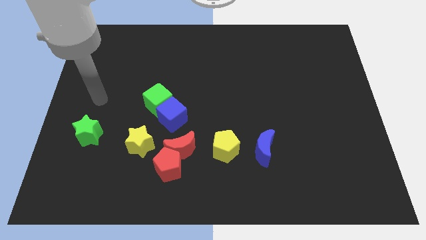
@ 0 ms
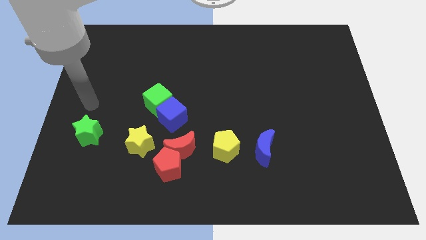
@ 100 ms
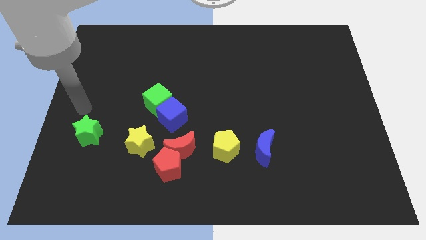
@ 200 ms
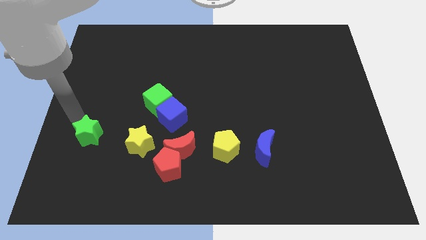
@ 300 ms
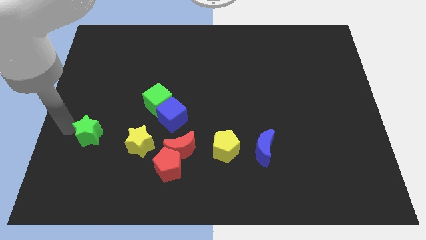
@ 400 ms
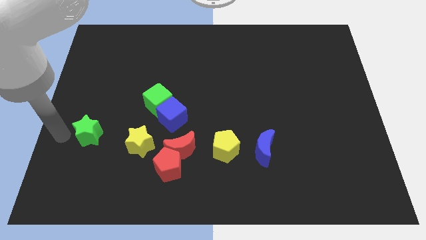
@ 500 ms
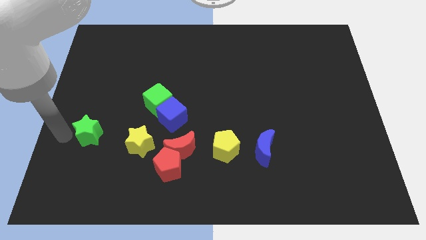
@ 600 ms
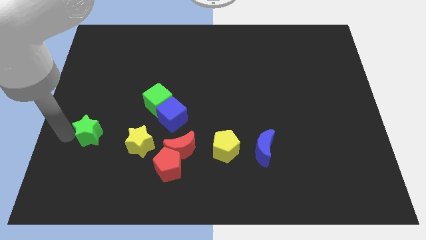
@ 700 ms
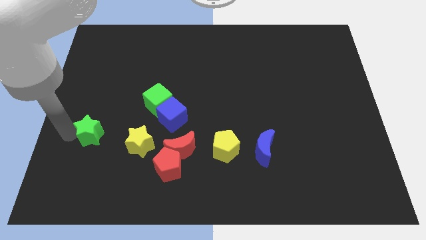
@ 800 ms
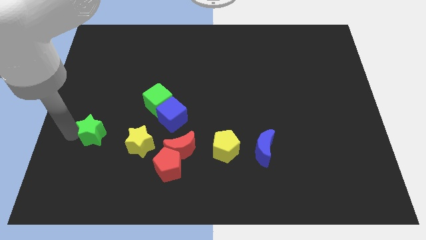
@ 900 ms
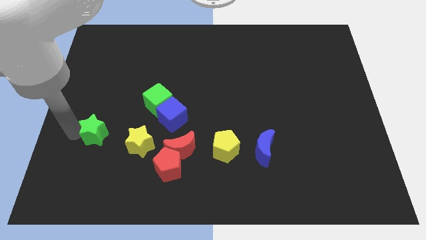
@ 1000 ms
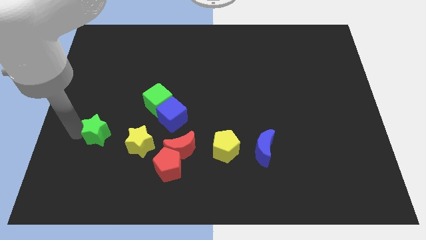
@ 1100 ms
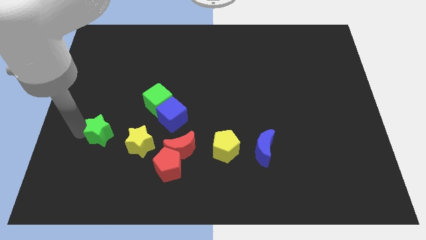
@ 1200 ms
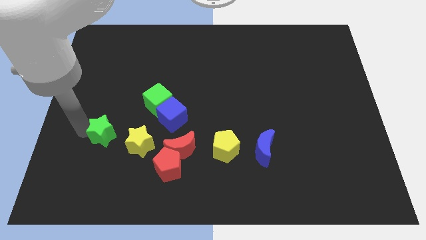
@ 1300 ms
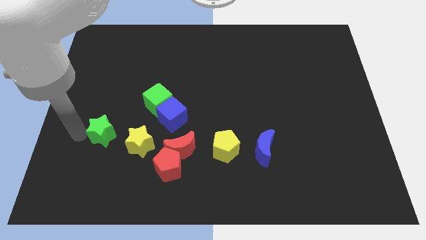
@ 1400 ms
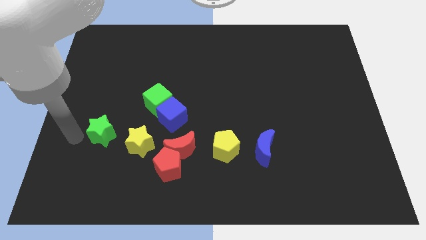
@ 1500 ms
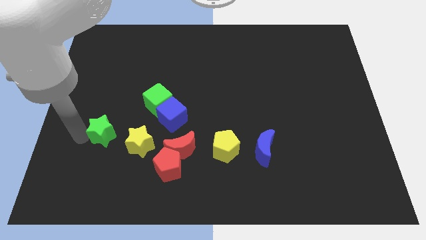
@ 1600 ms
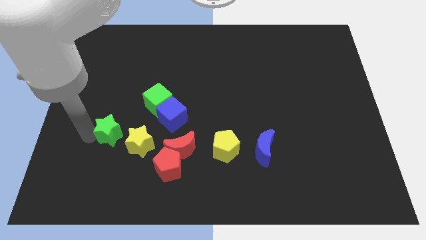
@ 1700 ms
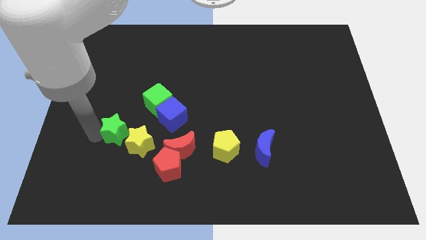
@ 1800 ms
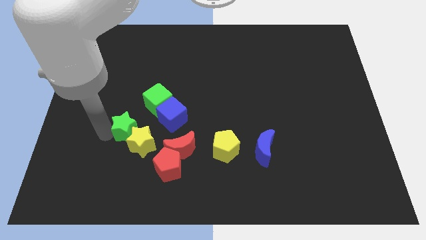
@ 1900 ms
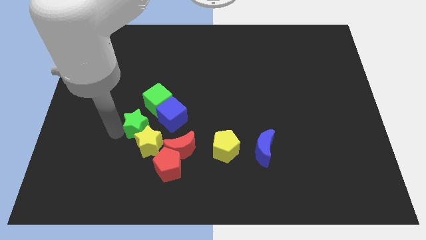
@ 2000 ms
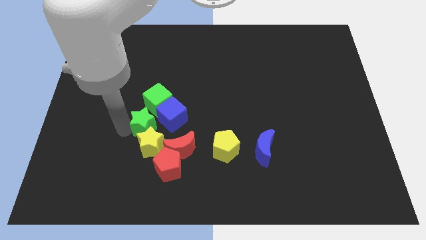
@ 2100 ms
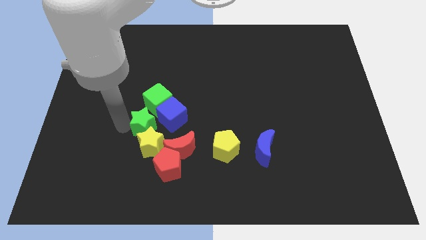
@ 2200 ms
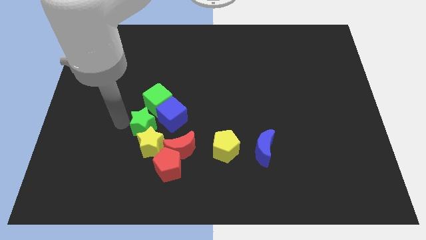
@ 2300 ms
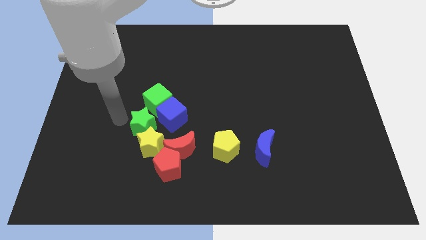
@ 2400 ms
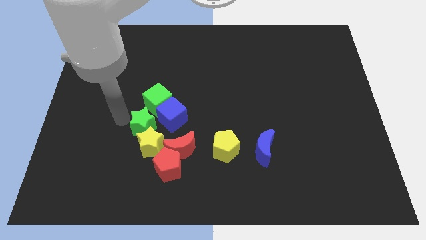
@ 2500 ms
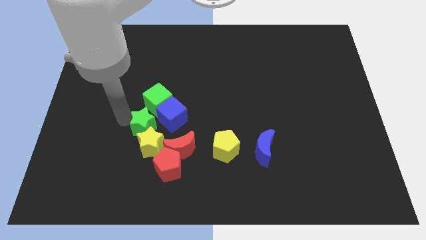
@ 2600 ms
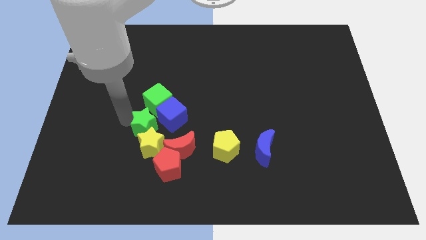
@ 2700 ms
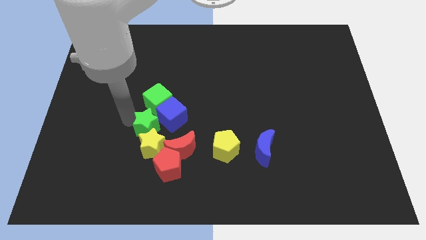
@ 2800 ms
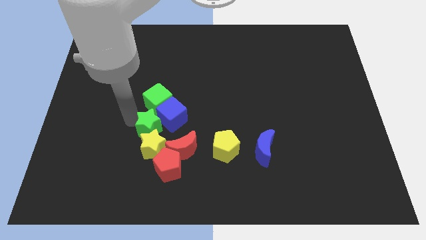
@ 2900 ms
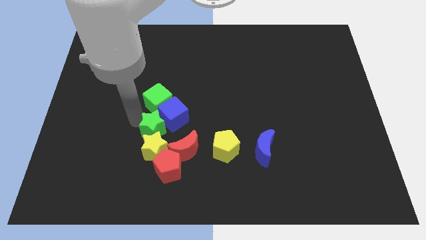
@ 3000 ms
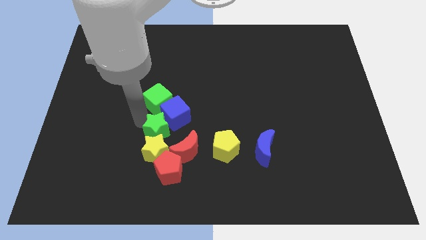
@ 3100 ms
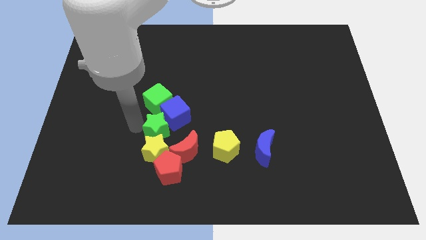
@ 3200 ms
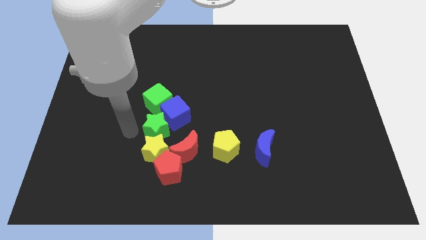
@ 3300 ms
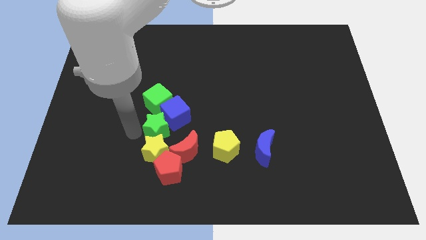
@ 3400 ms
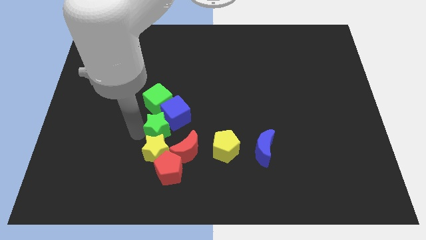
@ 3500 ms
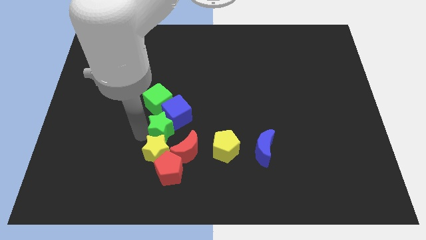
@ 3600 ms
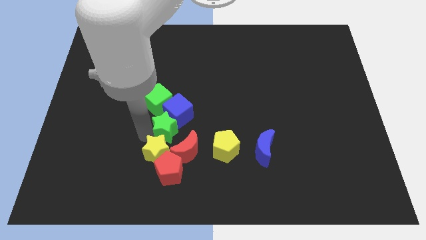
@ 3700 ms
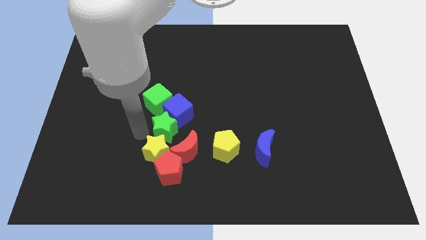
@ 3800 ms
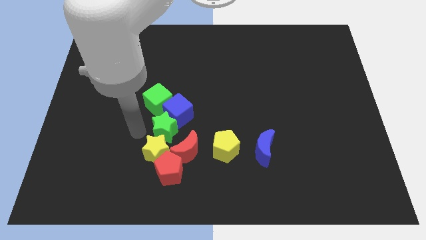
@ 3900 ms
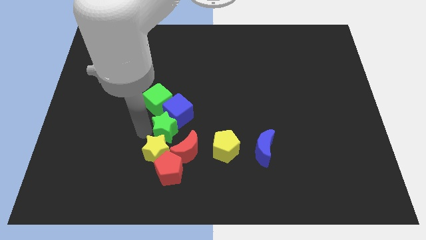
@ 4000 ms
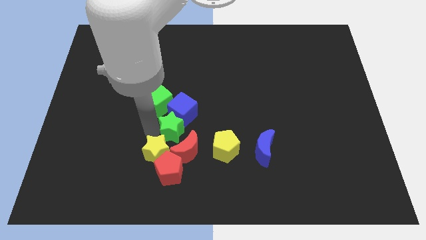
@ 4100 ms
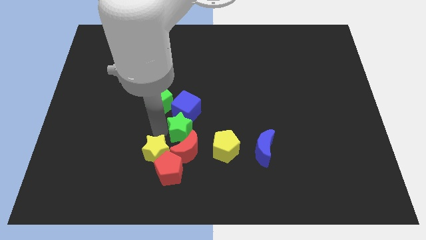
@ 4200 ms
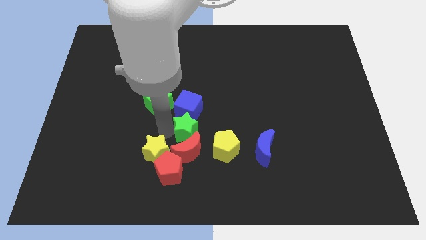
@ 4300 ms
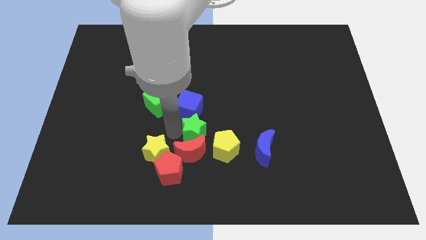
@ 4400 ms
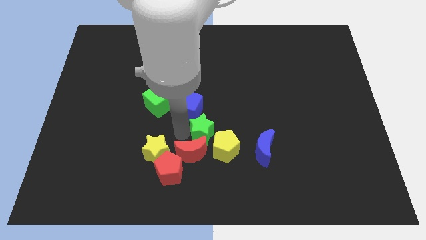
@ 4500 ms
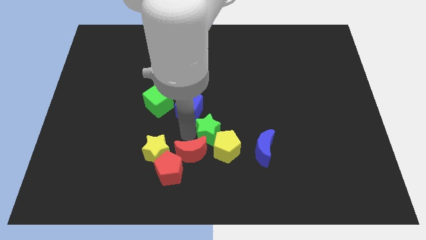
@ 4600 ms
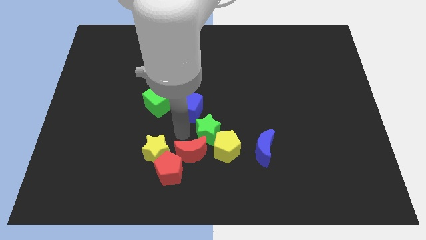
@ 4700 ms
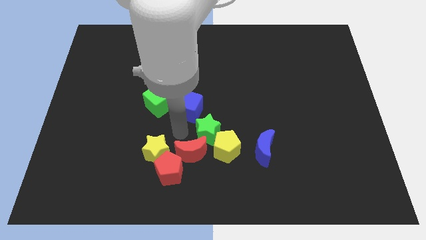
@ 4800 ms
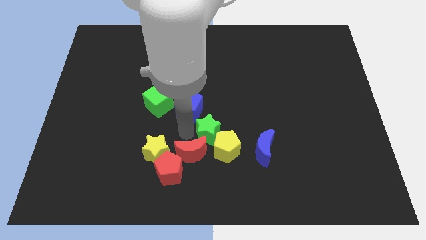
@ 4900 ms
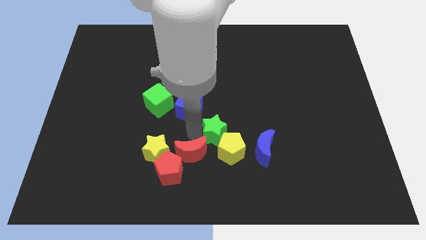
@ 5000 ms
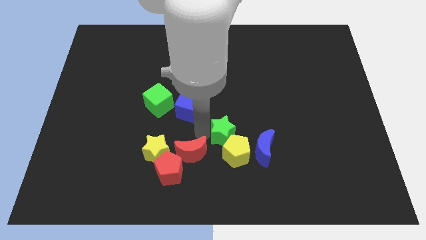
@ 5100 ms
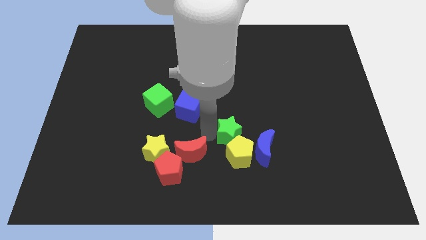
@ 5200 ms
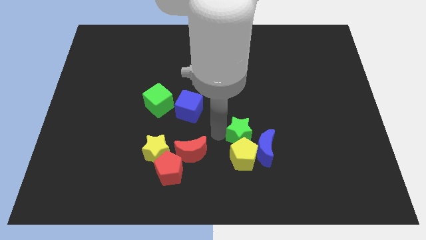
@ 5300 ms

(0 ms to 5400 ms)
put the green star towards the blue moon

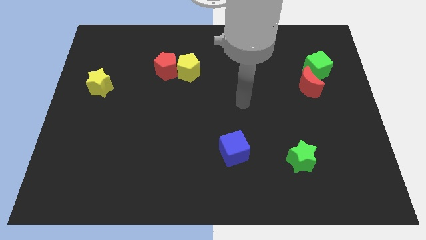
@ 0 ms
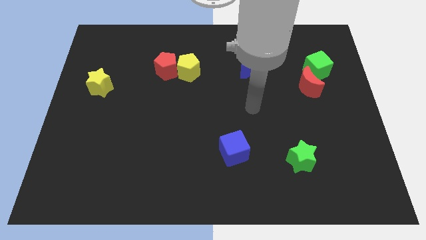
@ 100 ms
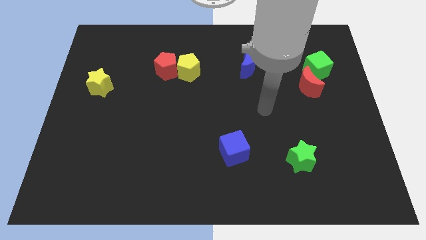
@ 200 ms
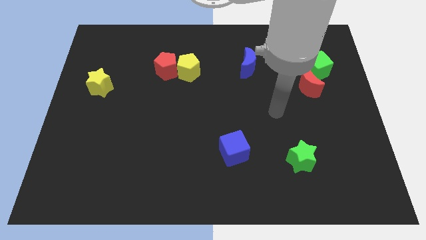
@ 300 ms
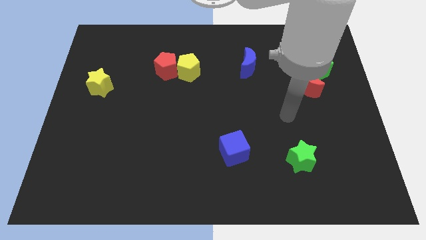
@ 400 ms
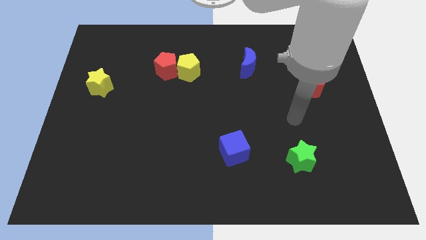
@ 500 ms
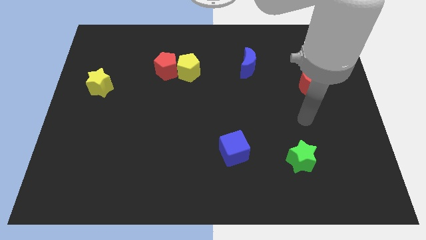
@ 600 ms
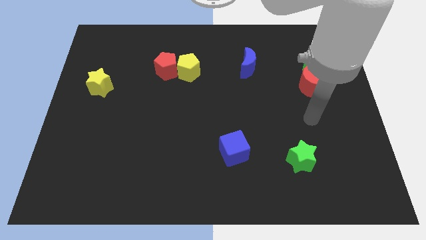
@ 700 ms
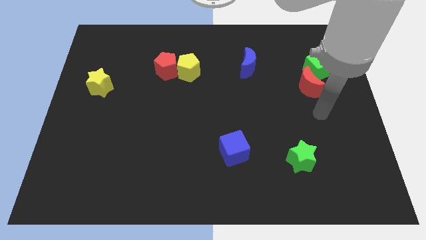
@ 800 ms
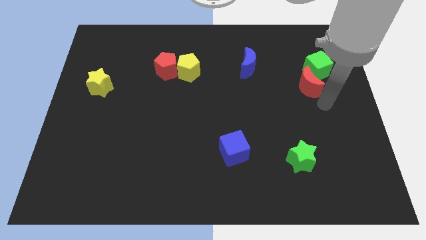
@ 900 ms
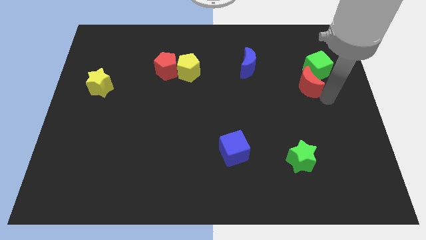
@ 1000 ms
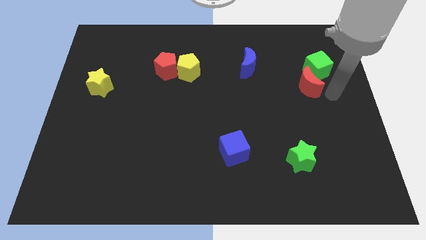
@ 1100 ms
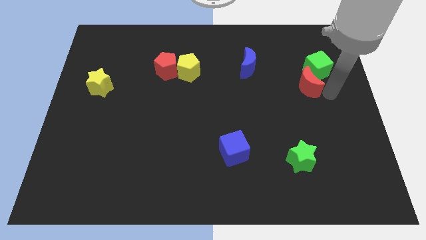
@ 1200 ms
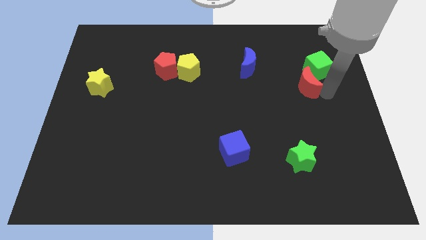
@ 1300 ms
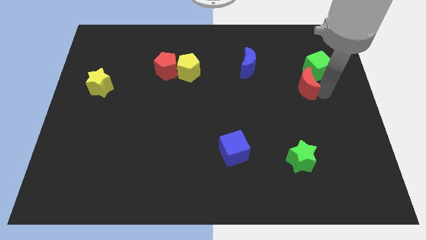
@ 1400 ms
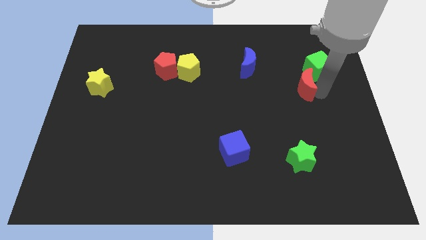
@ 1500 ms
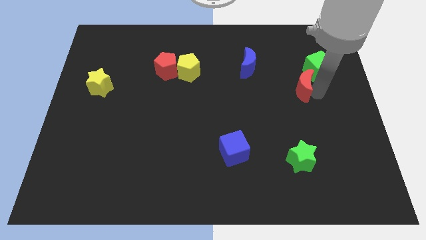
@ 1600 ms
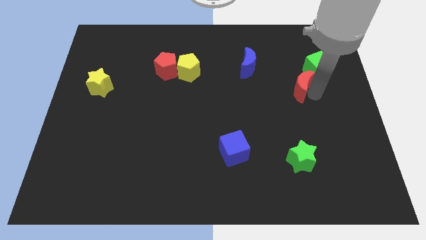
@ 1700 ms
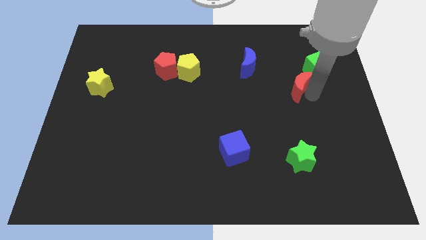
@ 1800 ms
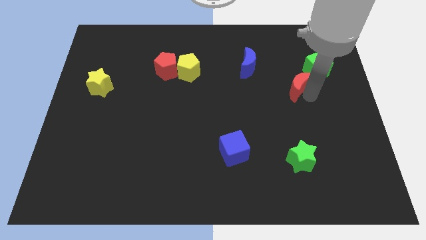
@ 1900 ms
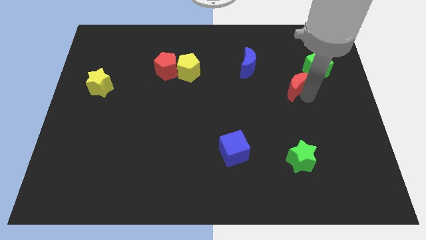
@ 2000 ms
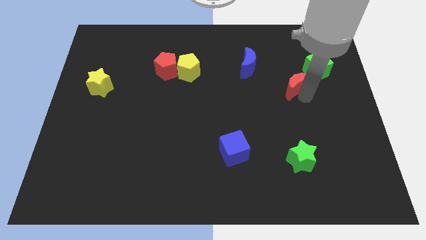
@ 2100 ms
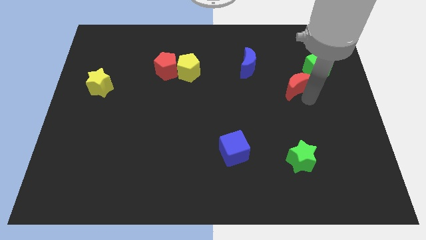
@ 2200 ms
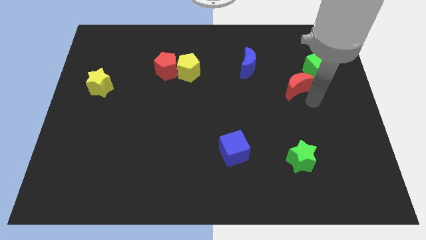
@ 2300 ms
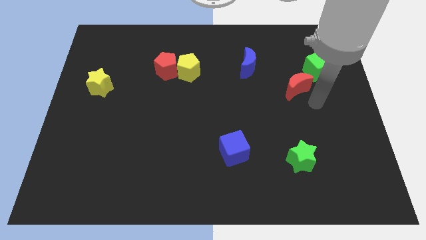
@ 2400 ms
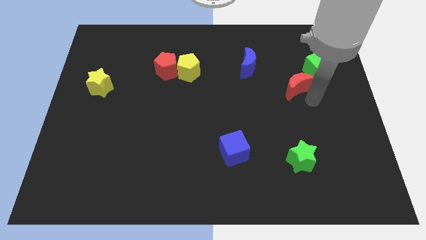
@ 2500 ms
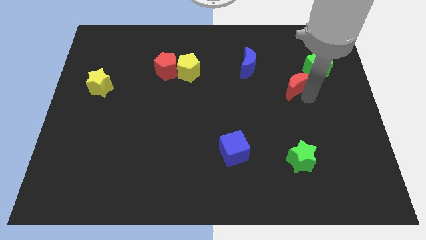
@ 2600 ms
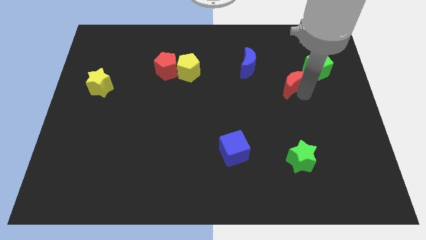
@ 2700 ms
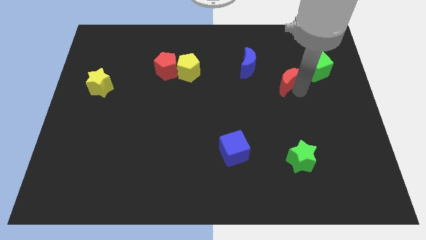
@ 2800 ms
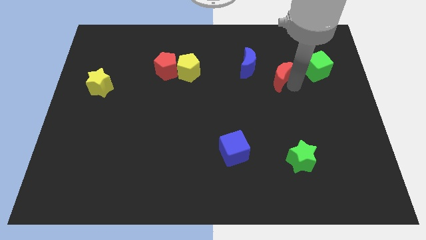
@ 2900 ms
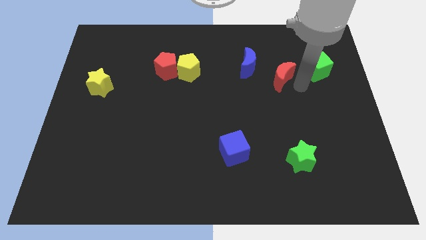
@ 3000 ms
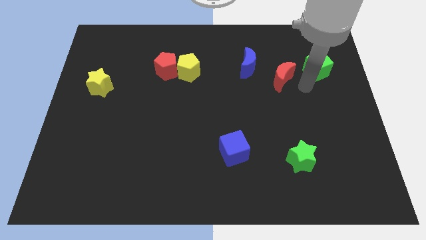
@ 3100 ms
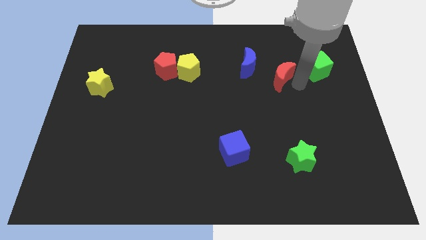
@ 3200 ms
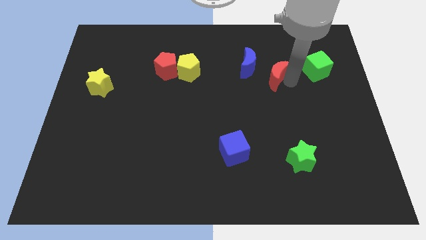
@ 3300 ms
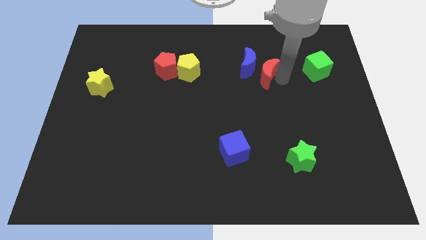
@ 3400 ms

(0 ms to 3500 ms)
push the red moon next to the blue moon
